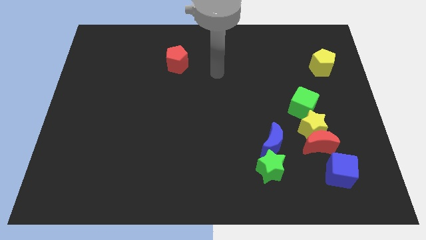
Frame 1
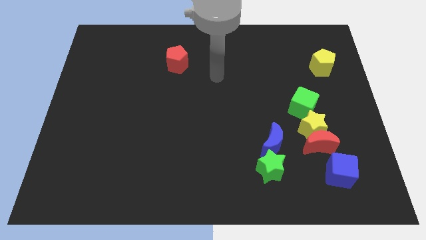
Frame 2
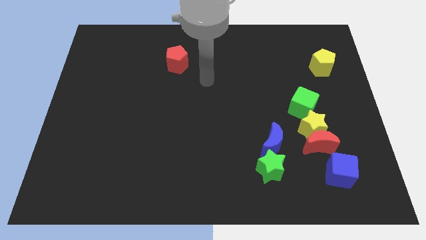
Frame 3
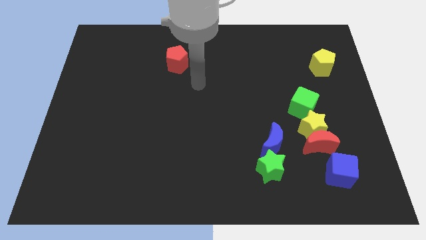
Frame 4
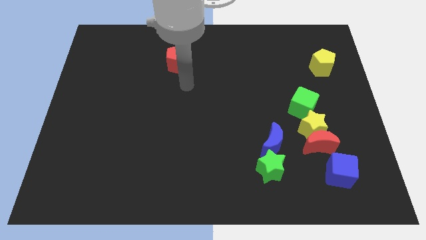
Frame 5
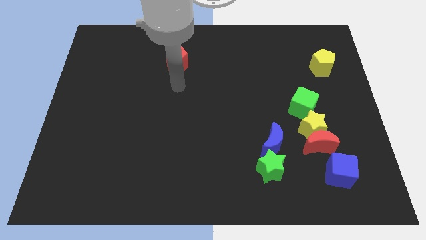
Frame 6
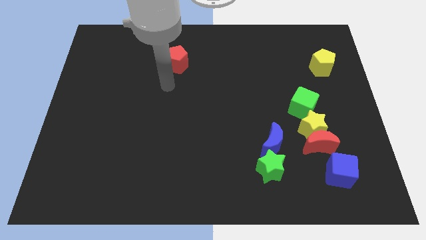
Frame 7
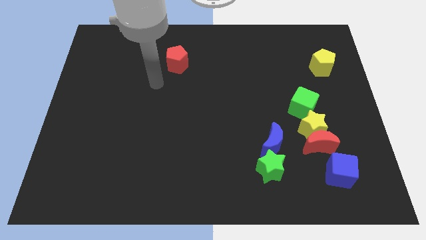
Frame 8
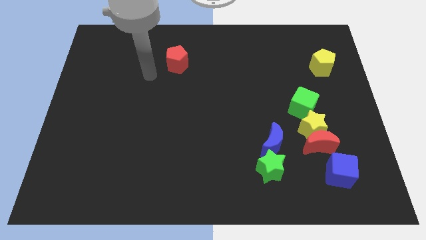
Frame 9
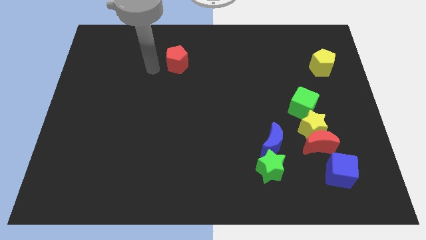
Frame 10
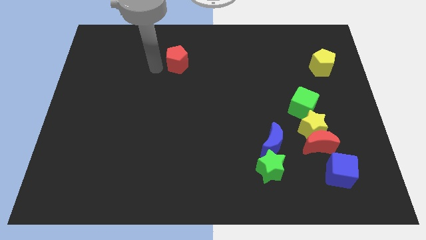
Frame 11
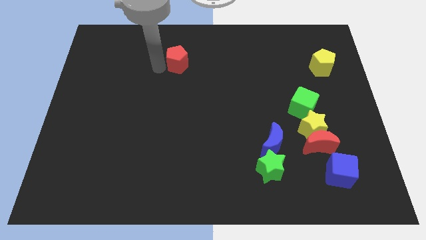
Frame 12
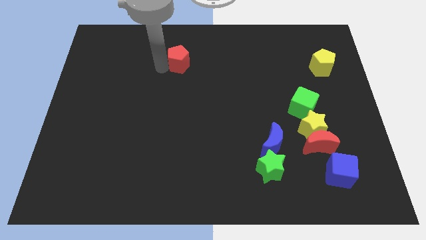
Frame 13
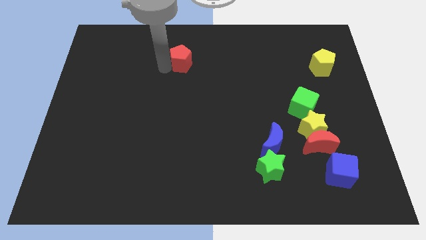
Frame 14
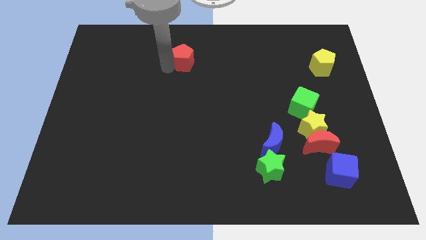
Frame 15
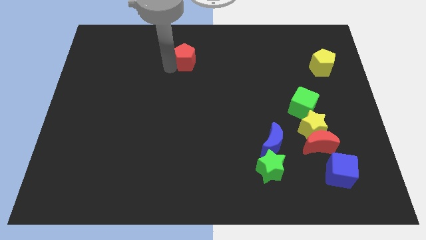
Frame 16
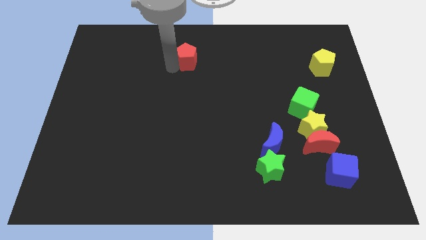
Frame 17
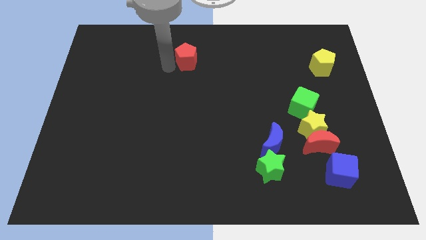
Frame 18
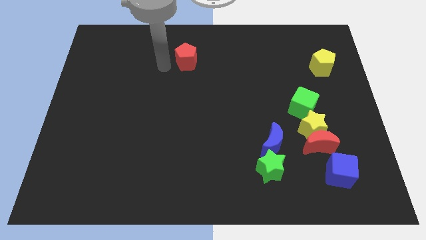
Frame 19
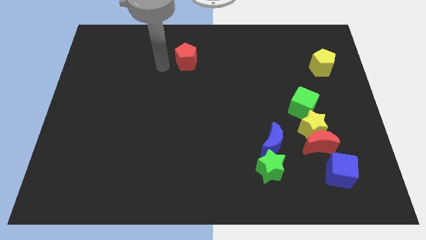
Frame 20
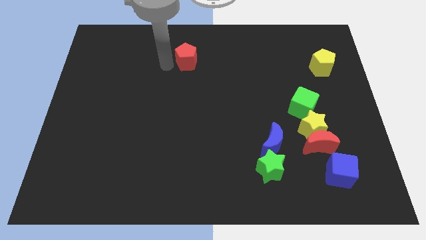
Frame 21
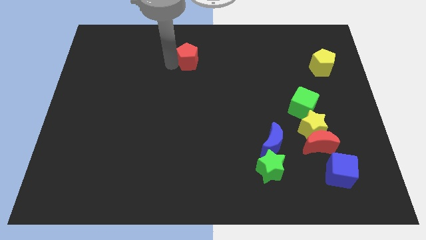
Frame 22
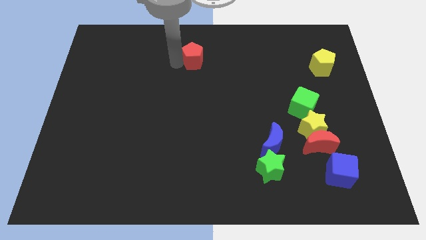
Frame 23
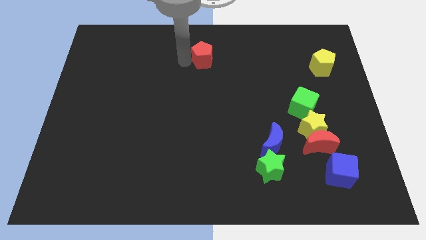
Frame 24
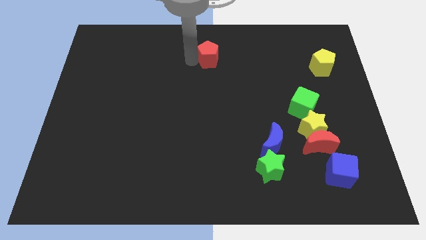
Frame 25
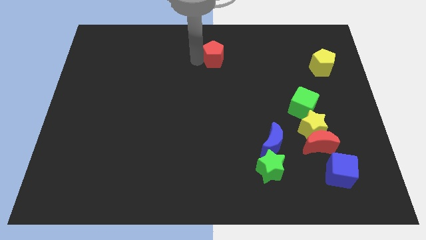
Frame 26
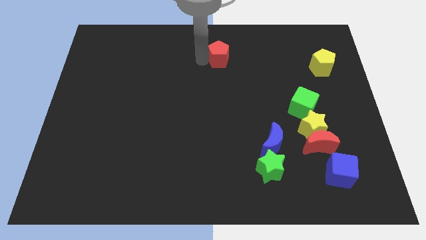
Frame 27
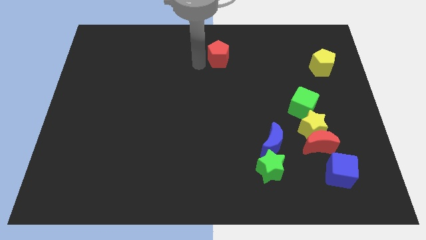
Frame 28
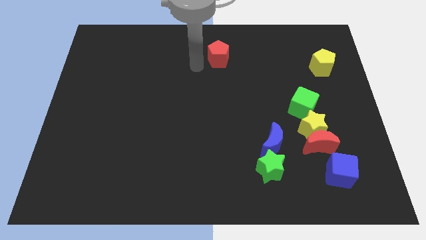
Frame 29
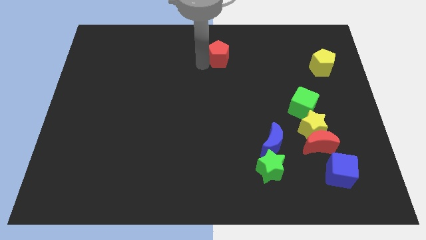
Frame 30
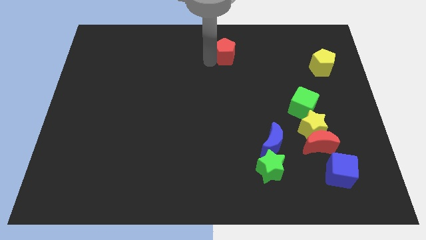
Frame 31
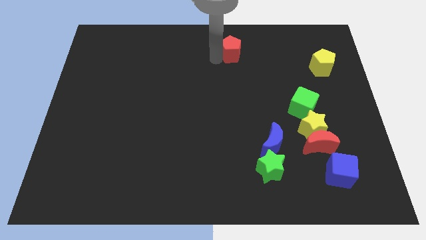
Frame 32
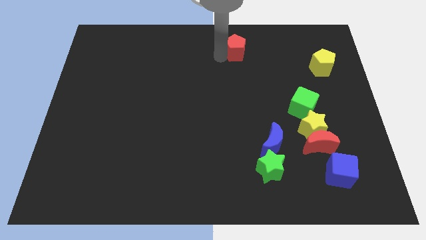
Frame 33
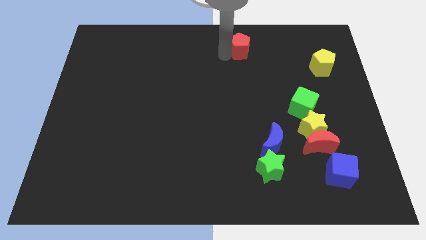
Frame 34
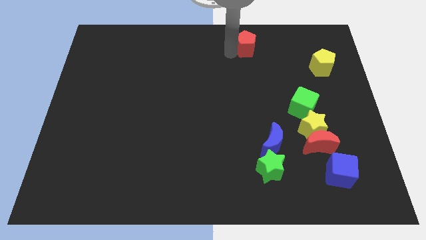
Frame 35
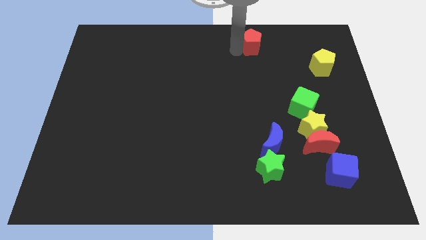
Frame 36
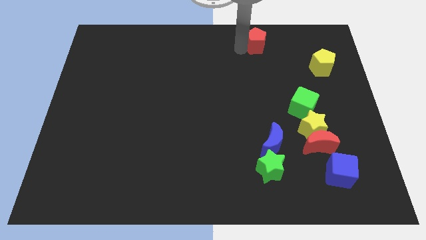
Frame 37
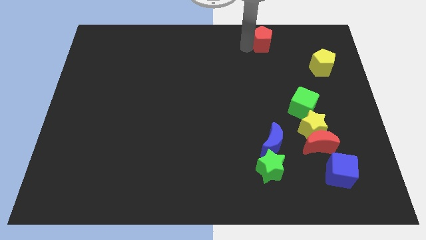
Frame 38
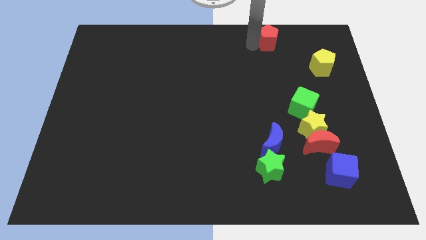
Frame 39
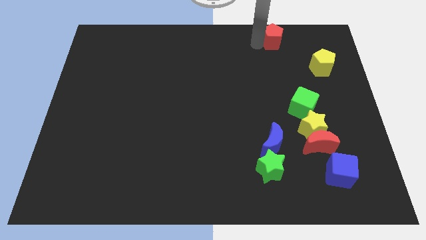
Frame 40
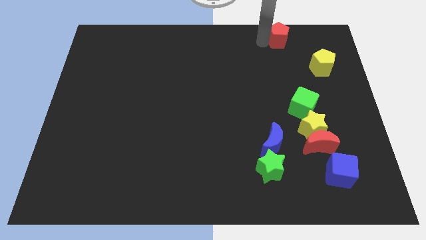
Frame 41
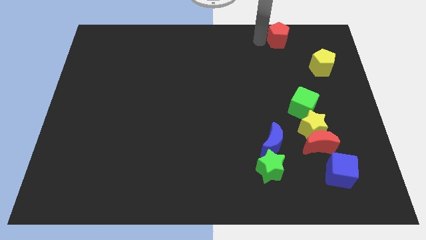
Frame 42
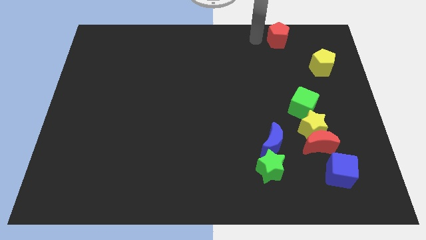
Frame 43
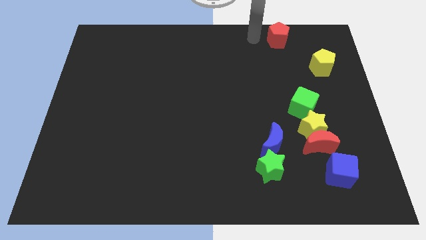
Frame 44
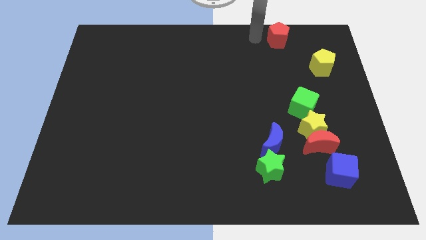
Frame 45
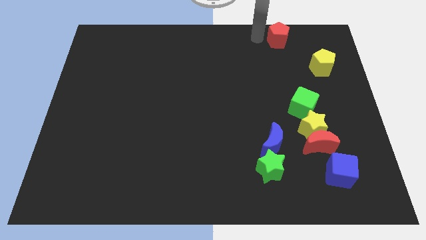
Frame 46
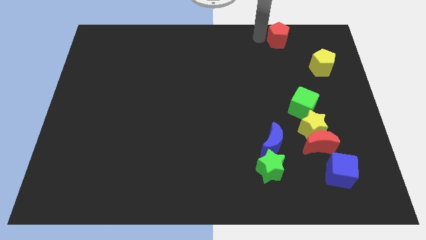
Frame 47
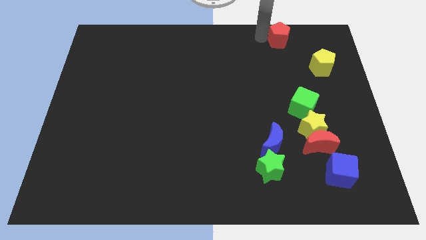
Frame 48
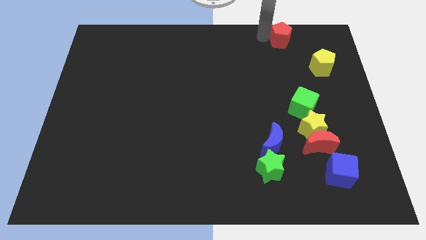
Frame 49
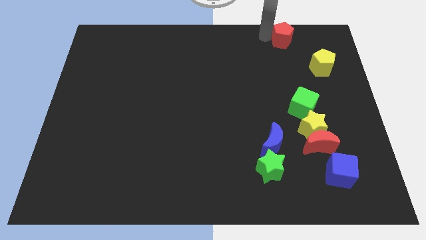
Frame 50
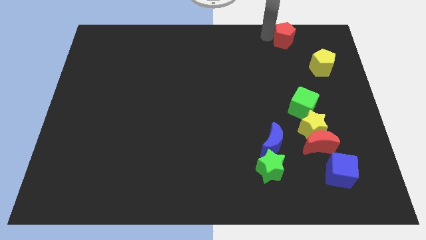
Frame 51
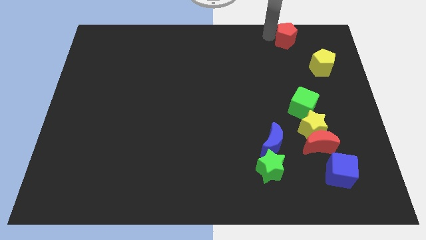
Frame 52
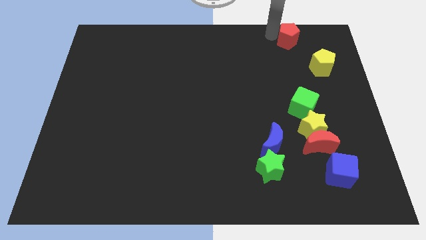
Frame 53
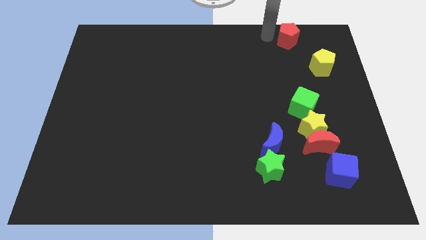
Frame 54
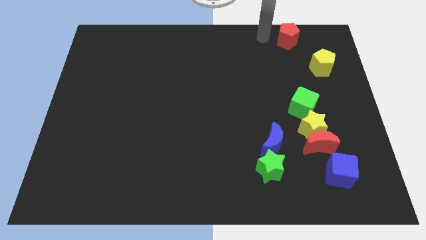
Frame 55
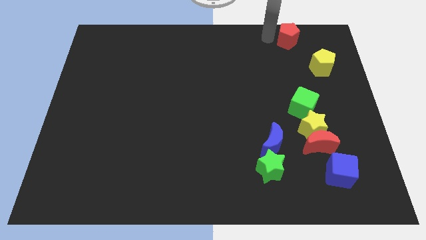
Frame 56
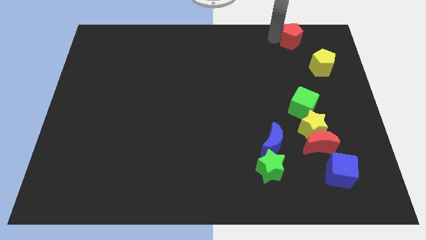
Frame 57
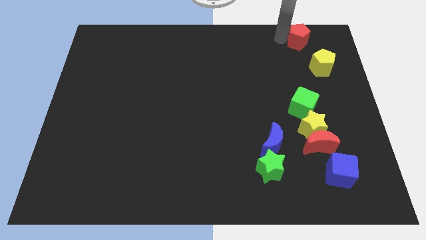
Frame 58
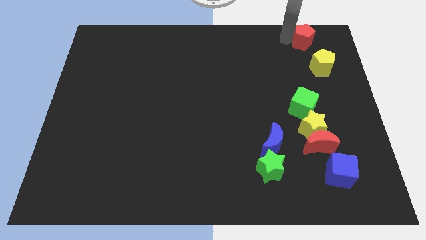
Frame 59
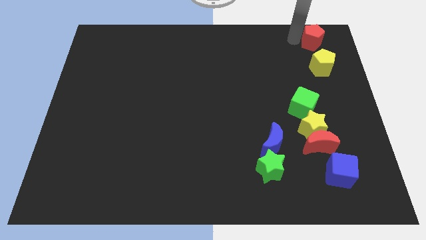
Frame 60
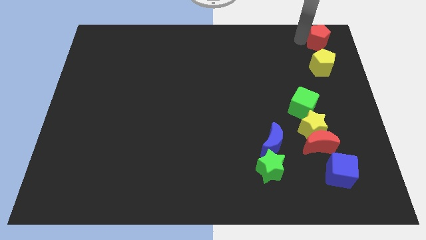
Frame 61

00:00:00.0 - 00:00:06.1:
slide the red pentagon to the top right of the board
